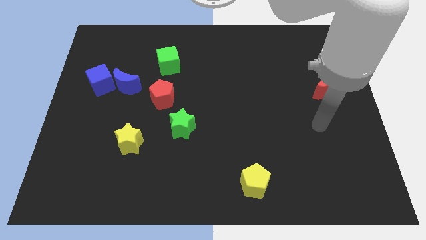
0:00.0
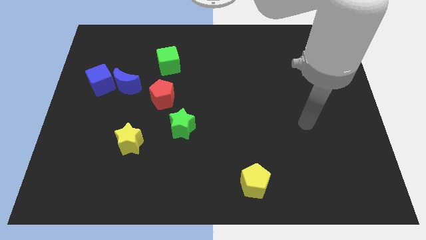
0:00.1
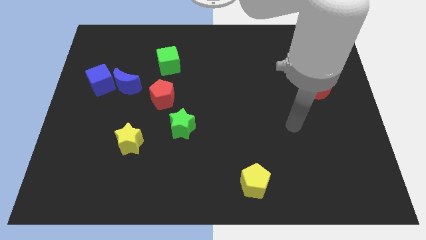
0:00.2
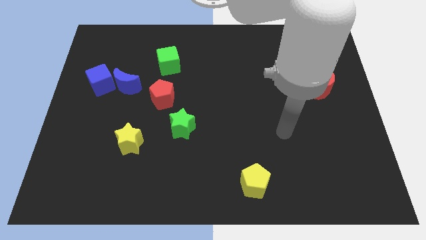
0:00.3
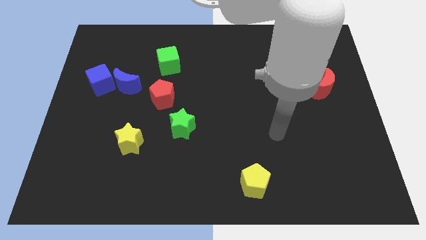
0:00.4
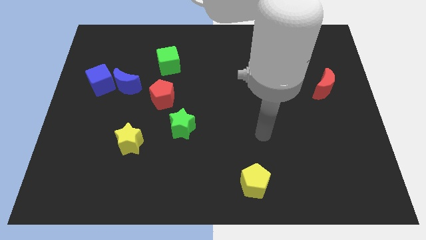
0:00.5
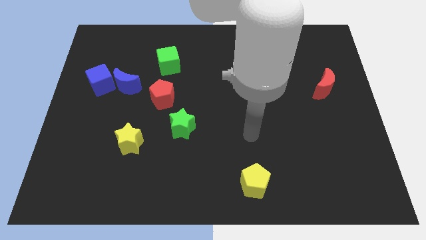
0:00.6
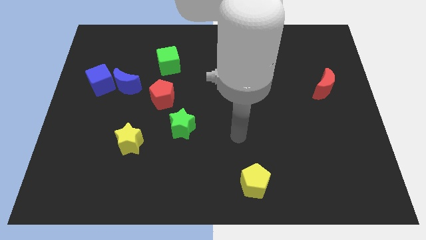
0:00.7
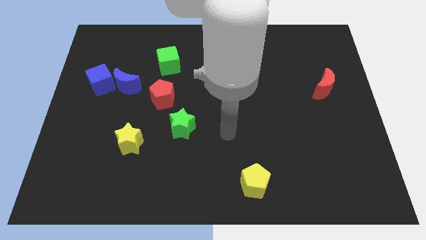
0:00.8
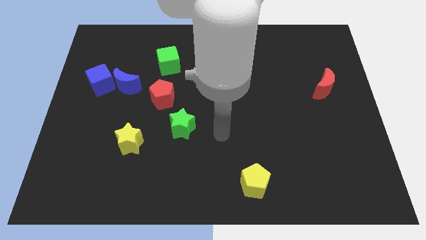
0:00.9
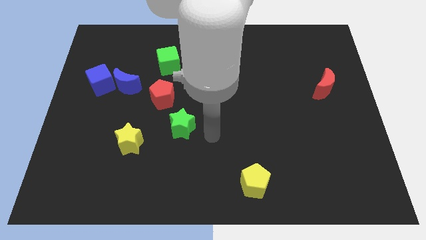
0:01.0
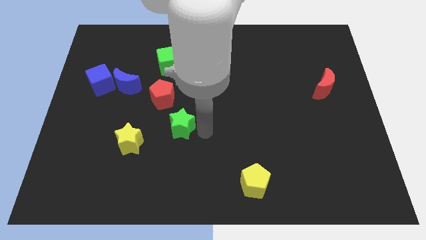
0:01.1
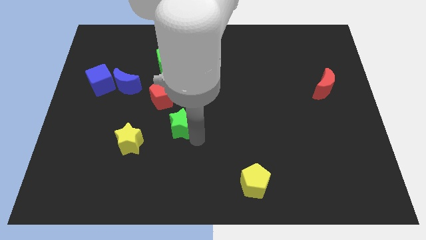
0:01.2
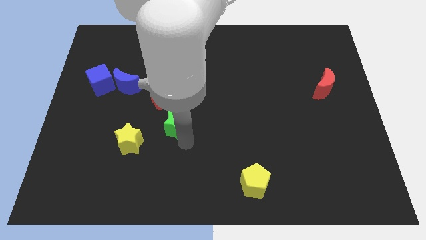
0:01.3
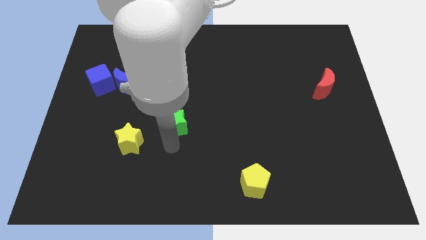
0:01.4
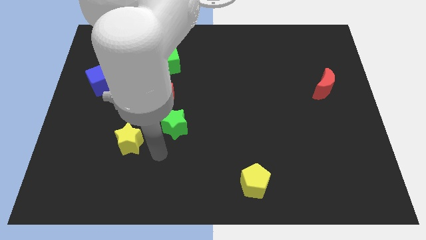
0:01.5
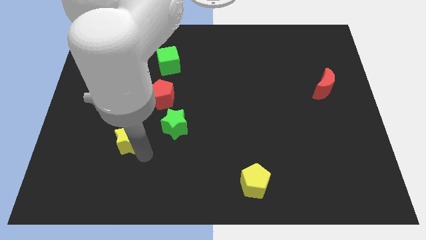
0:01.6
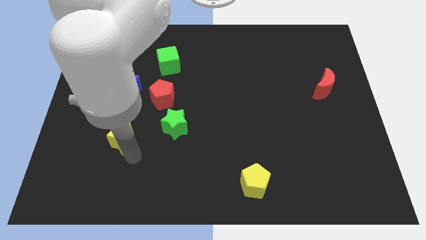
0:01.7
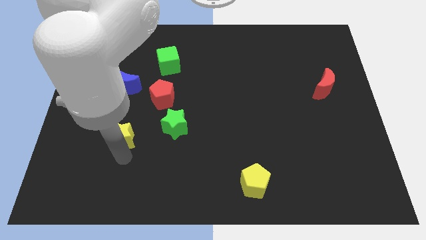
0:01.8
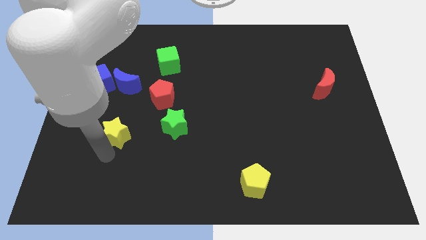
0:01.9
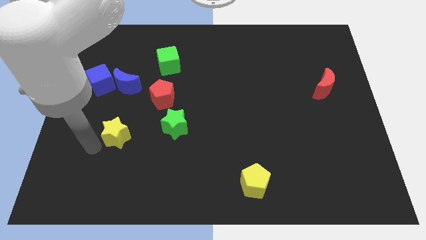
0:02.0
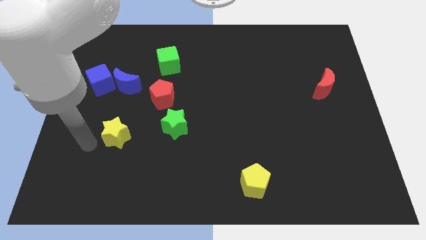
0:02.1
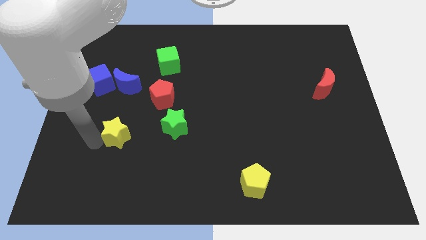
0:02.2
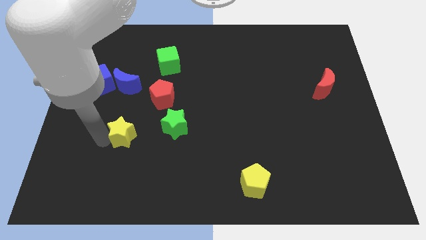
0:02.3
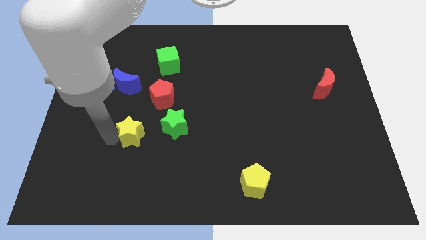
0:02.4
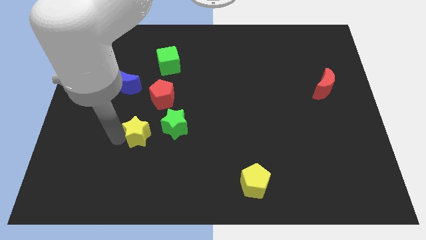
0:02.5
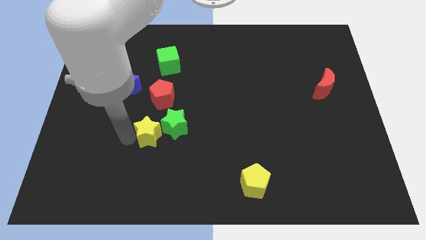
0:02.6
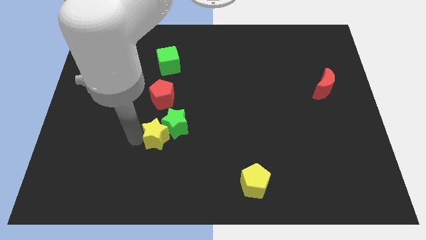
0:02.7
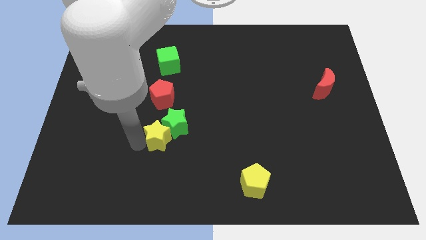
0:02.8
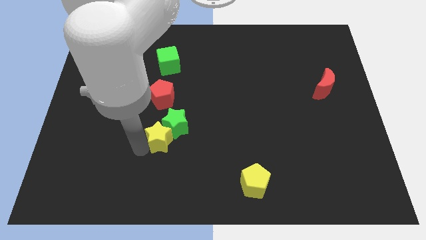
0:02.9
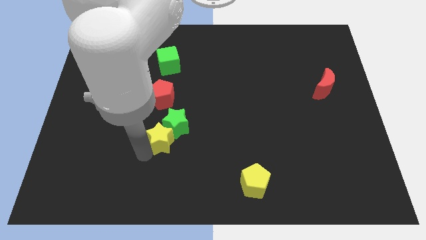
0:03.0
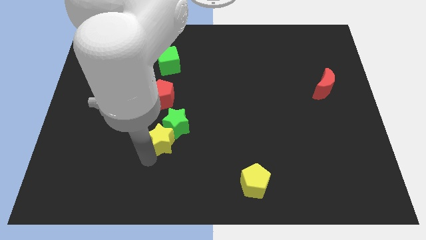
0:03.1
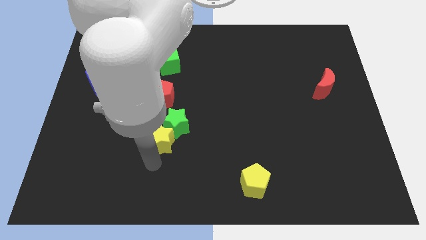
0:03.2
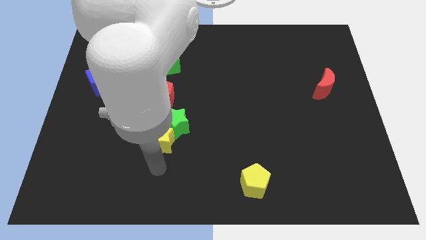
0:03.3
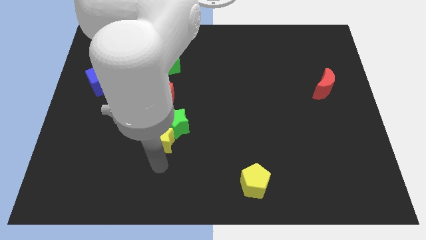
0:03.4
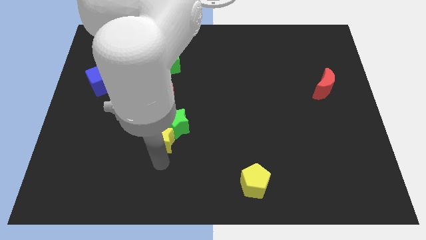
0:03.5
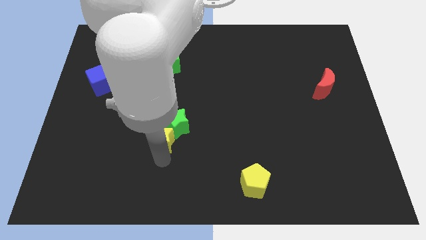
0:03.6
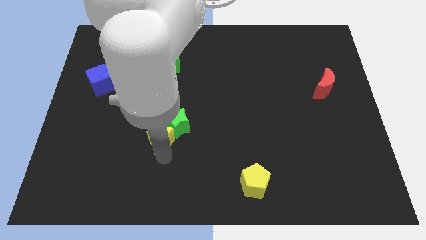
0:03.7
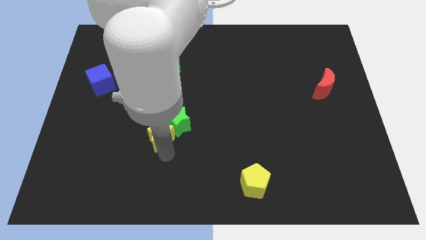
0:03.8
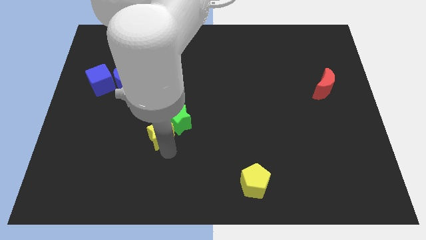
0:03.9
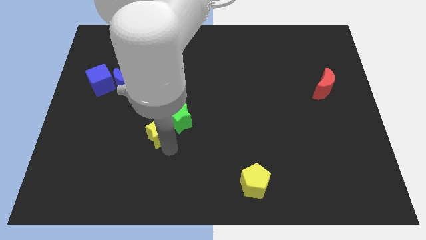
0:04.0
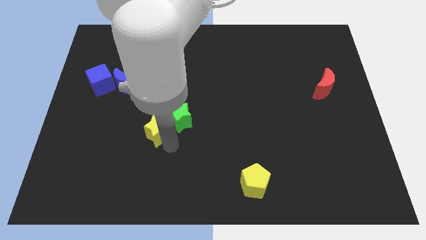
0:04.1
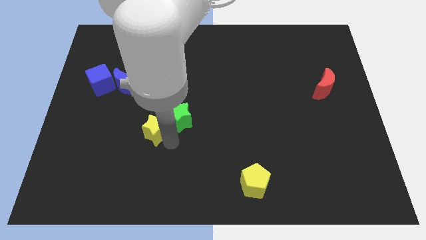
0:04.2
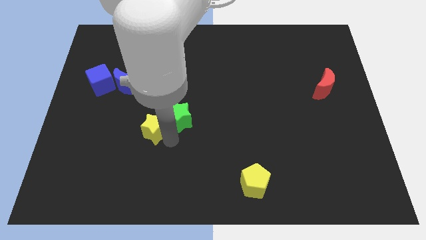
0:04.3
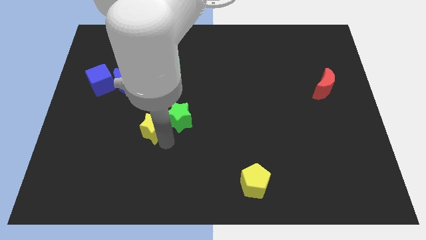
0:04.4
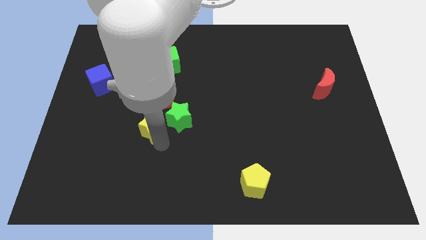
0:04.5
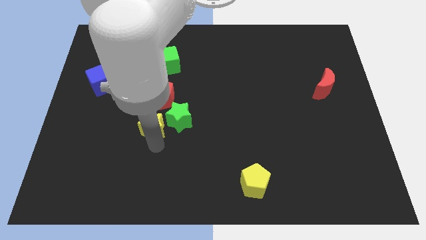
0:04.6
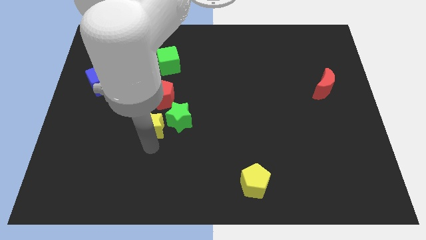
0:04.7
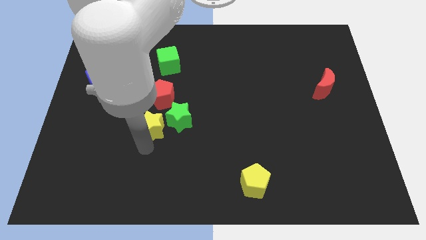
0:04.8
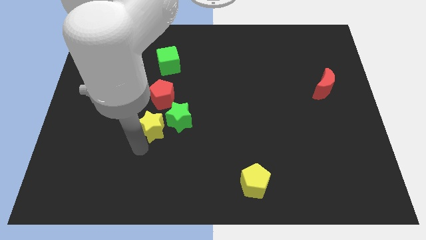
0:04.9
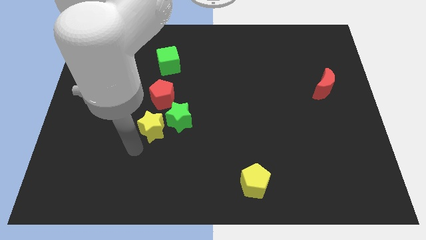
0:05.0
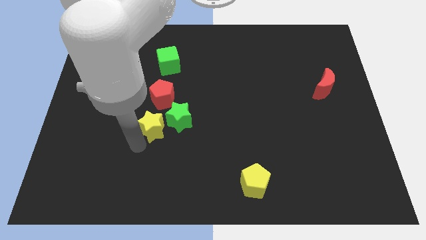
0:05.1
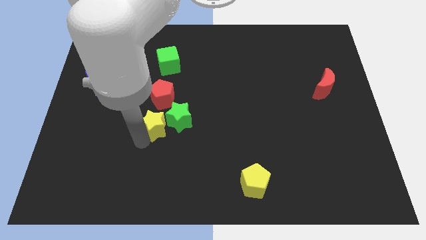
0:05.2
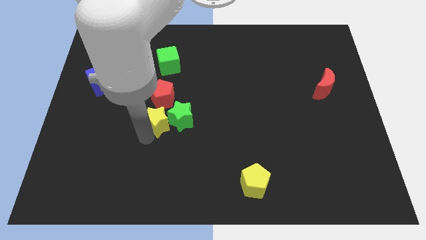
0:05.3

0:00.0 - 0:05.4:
slide the yellow star somewhat up and then right

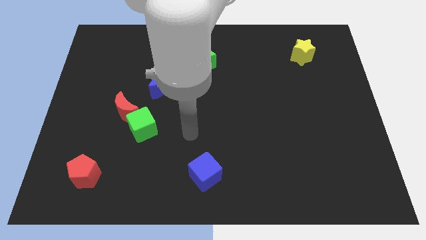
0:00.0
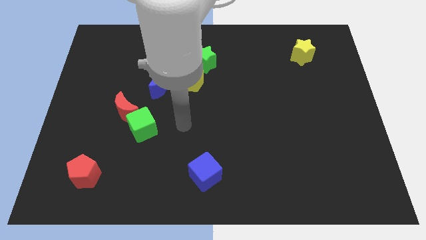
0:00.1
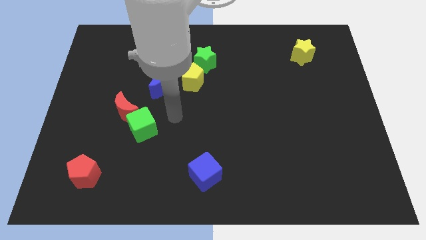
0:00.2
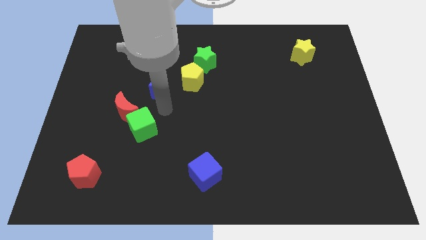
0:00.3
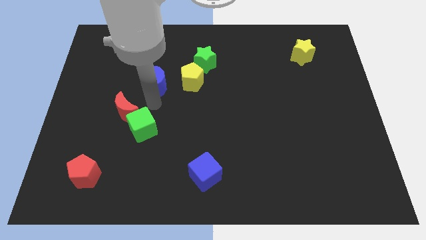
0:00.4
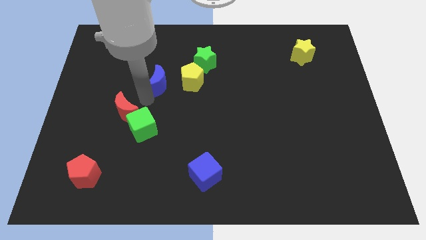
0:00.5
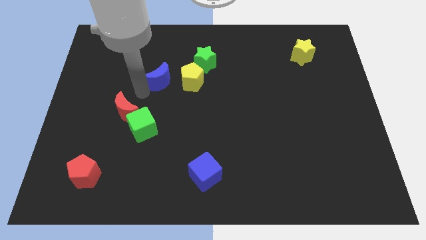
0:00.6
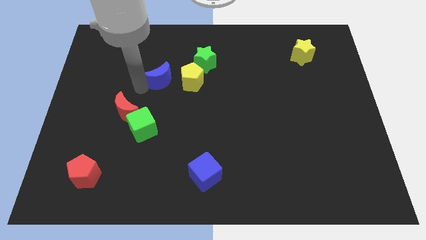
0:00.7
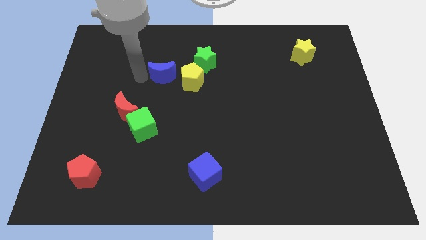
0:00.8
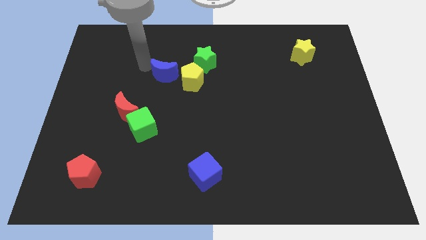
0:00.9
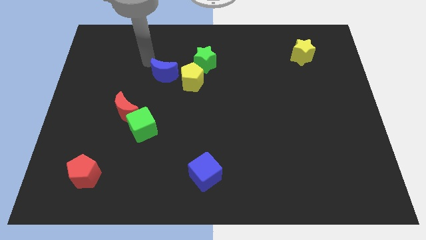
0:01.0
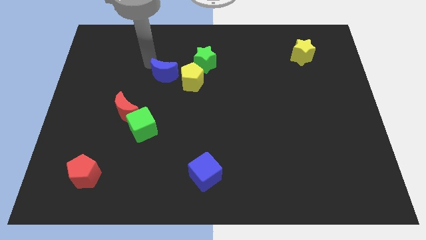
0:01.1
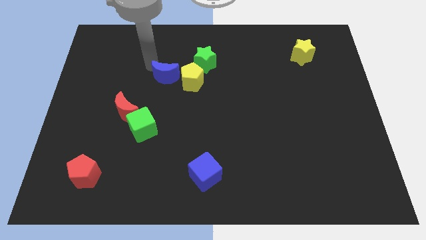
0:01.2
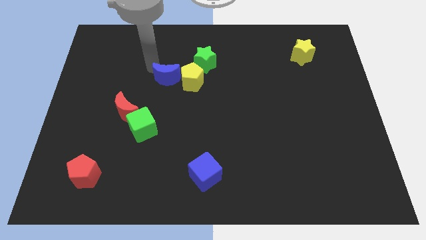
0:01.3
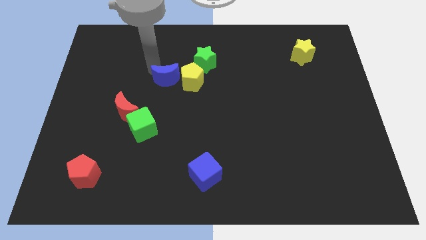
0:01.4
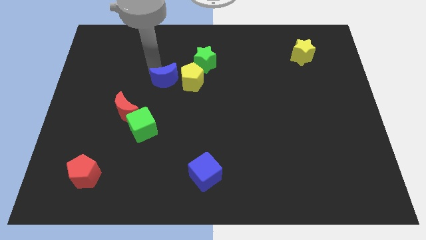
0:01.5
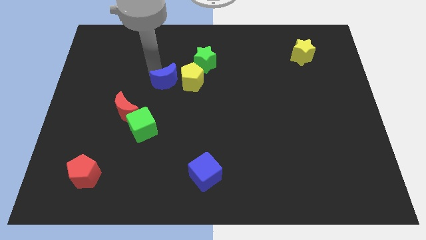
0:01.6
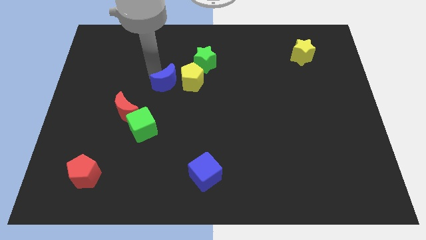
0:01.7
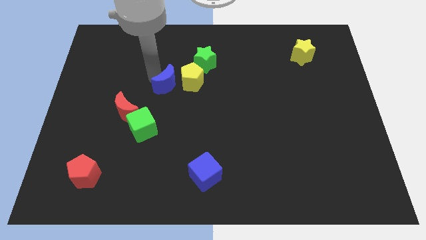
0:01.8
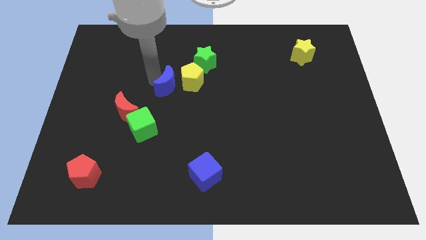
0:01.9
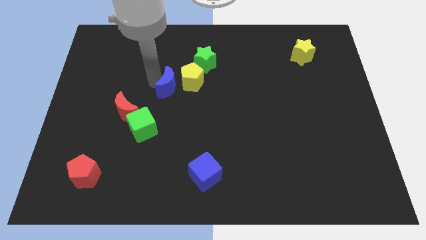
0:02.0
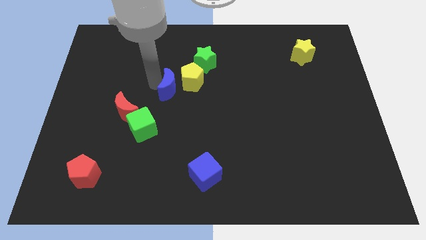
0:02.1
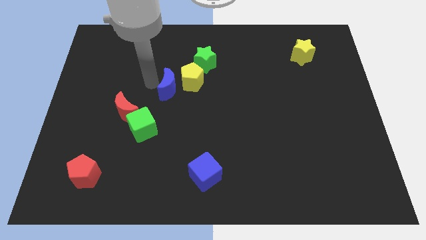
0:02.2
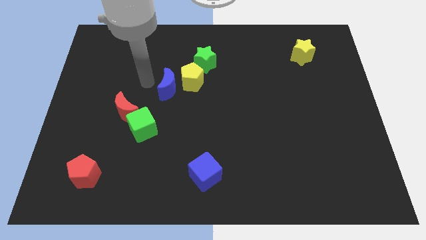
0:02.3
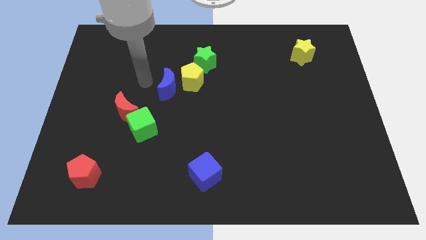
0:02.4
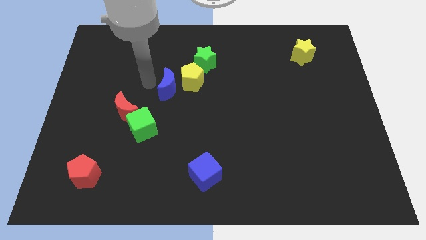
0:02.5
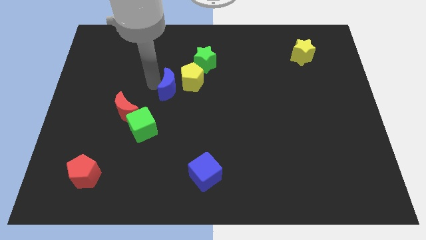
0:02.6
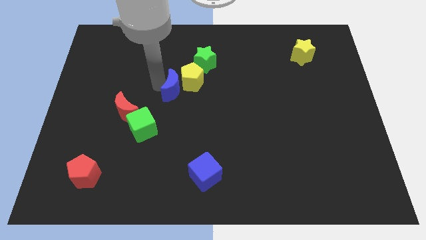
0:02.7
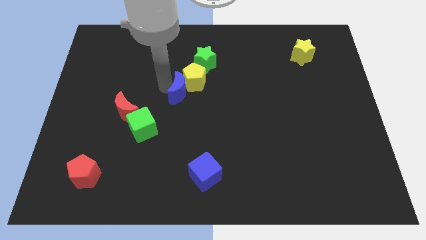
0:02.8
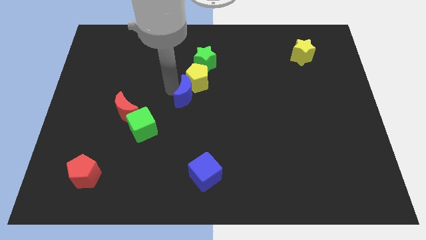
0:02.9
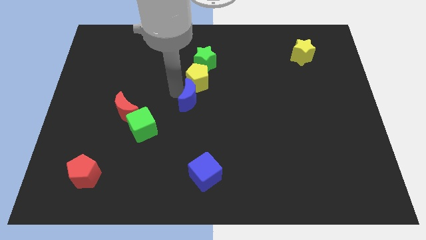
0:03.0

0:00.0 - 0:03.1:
move the blue moon a little bit to the right
